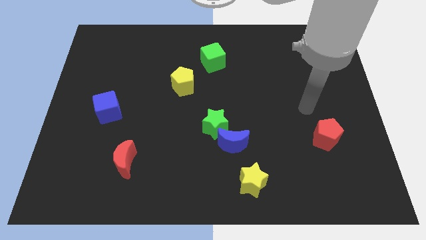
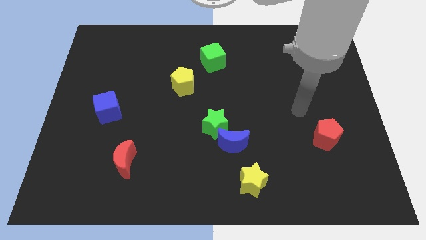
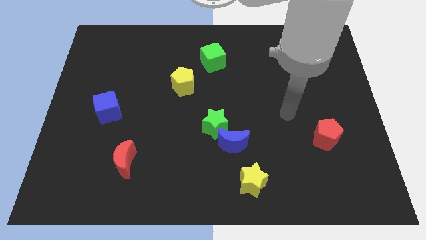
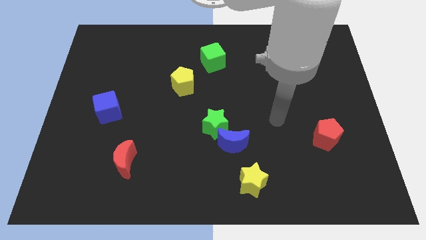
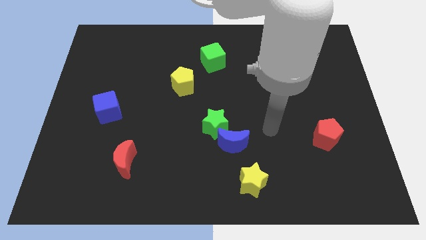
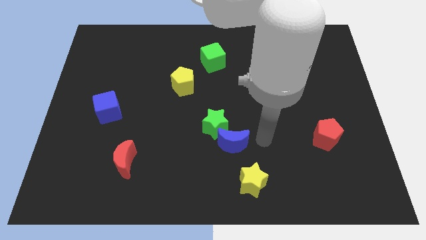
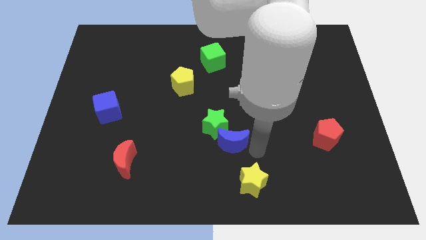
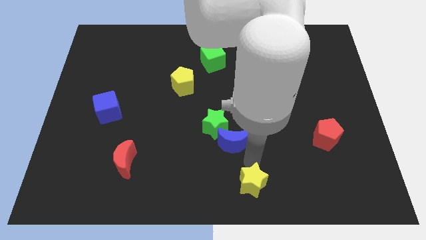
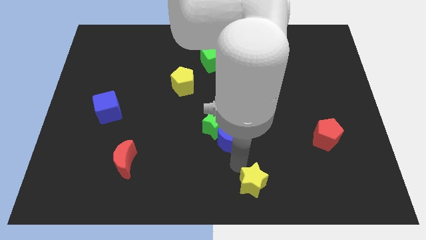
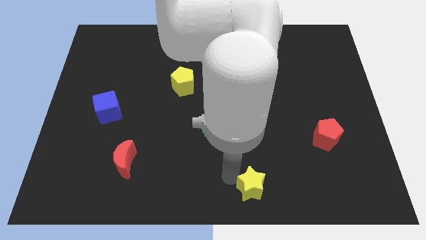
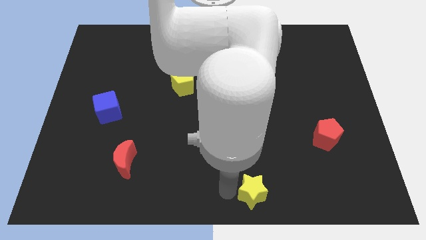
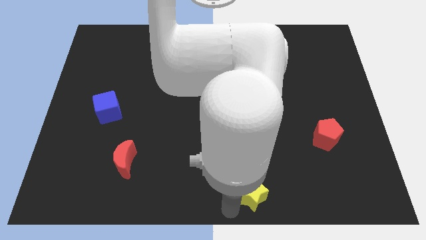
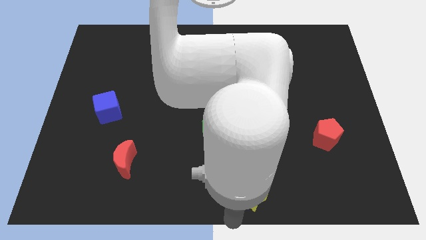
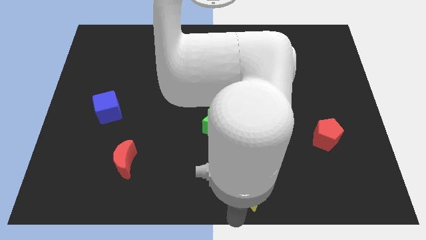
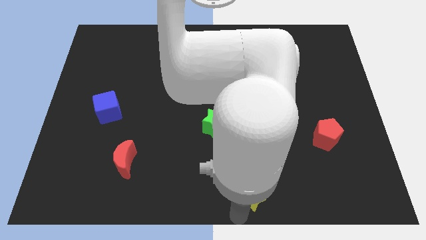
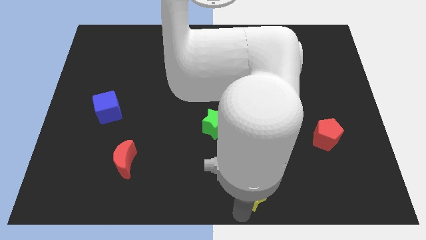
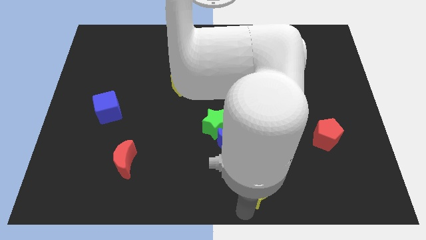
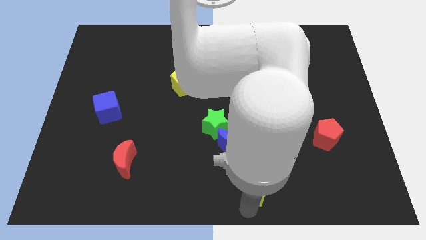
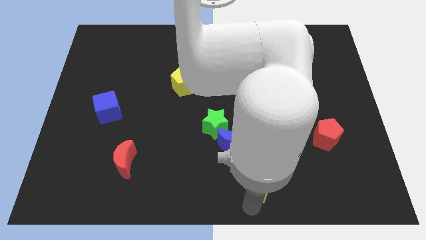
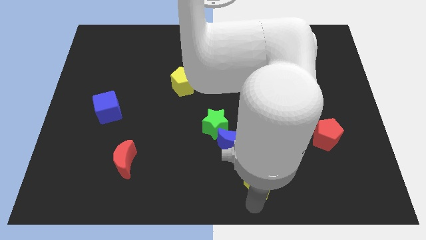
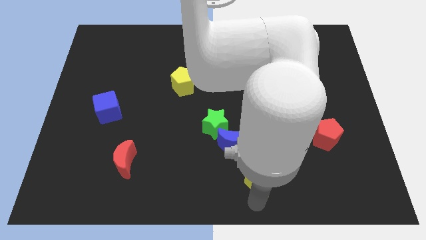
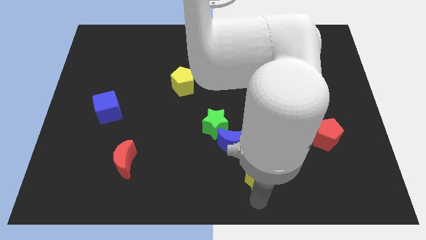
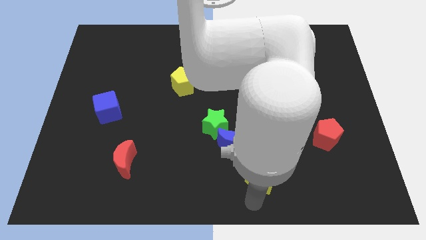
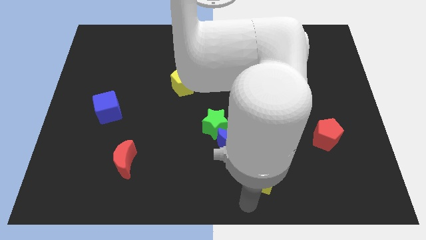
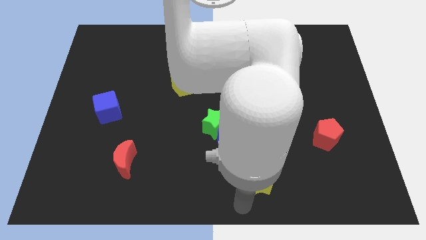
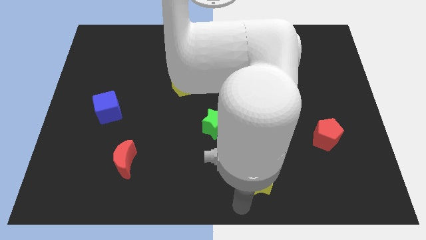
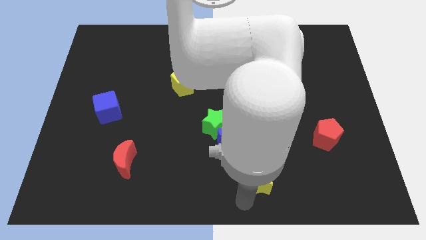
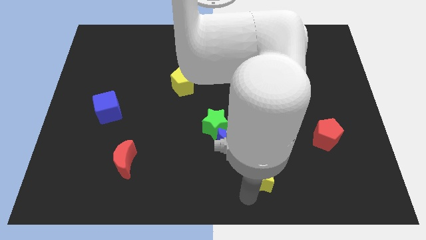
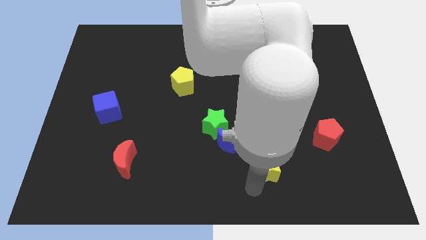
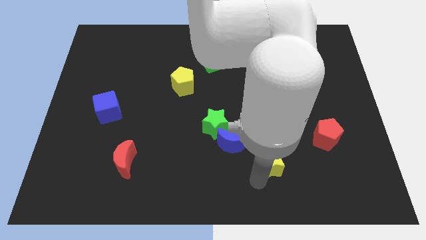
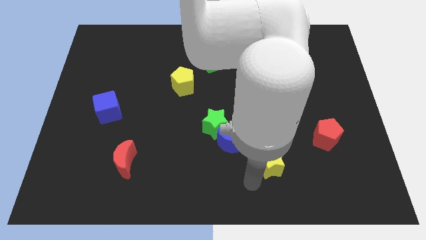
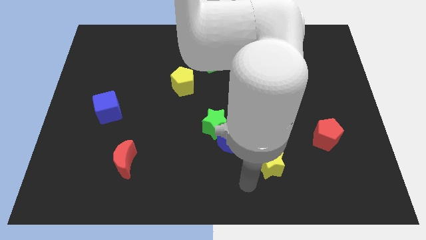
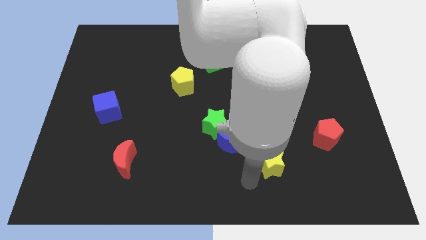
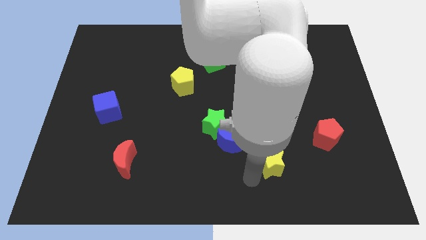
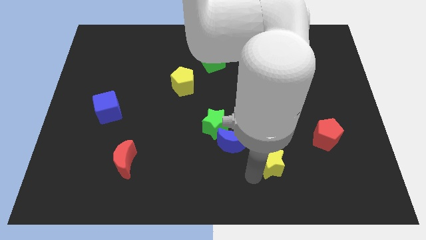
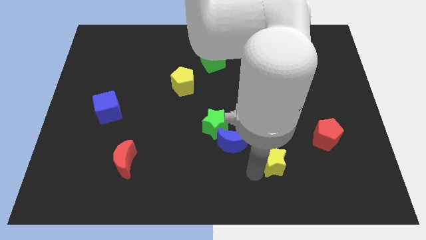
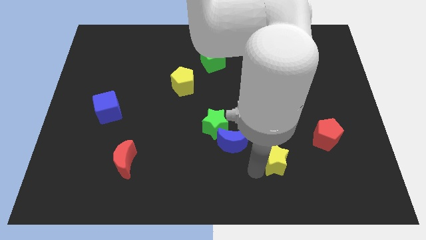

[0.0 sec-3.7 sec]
push the yellow star a bit upwards and to the right

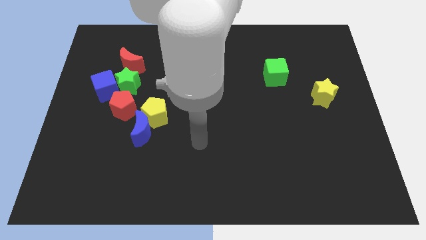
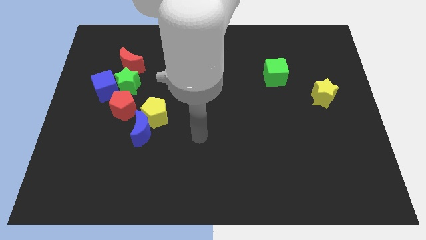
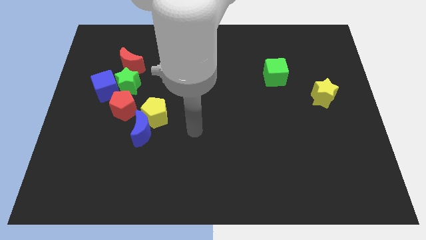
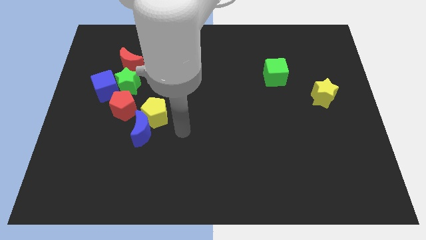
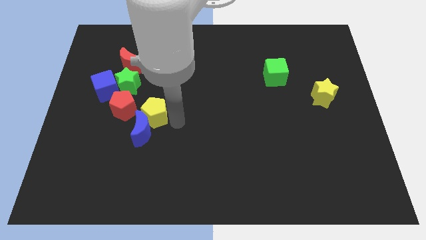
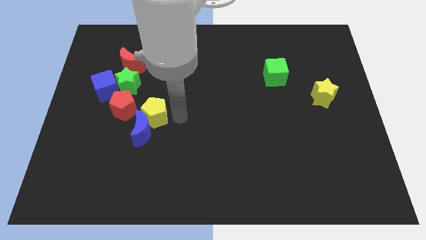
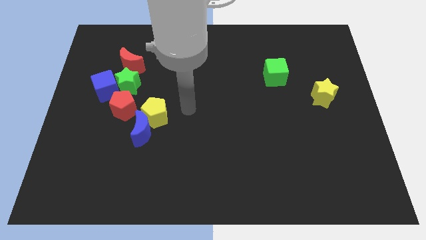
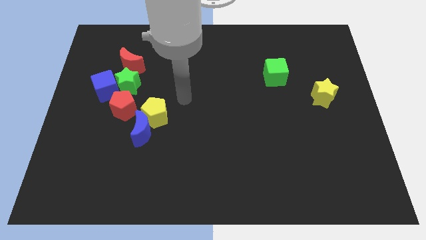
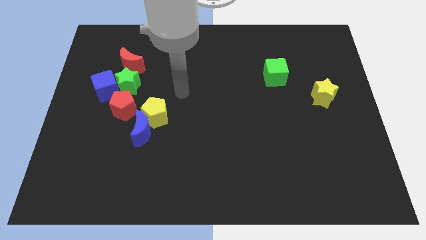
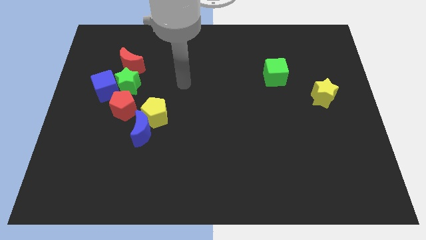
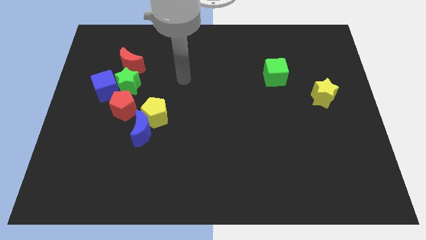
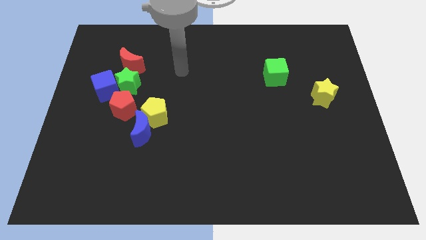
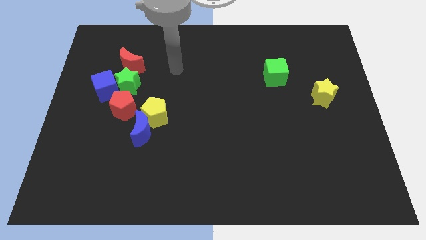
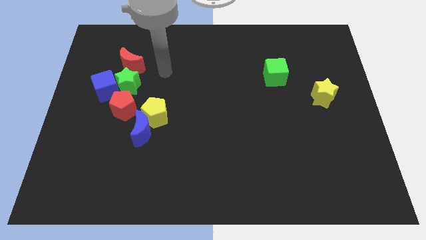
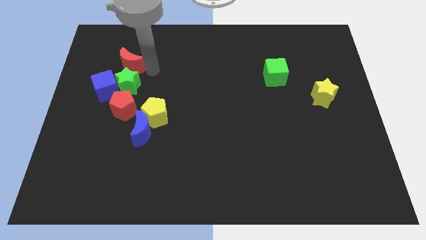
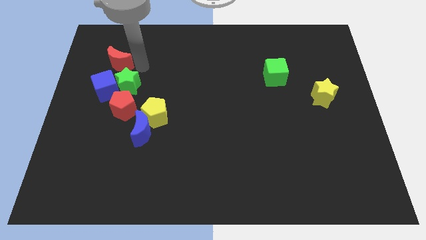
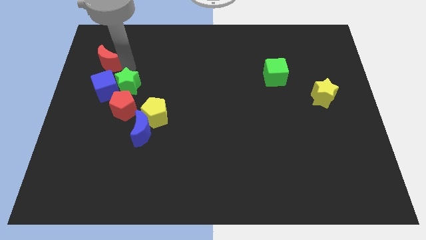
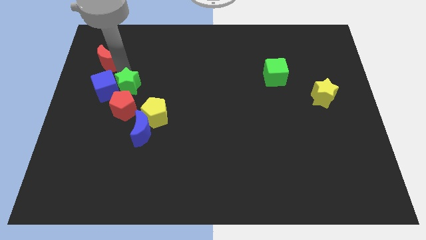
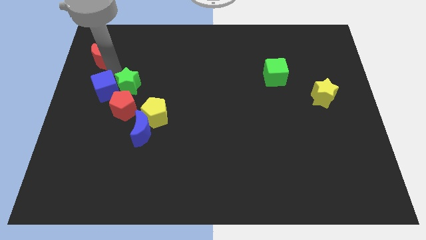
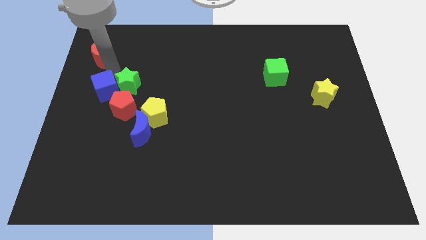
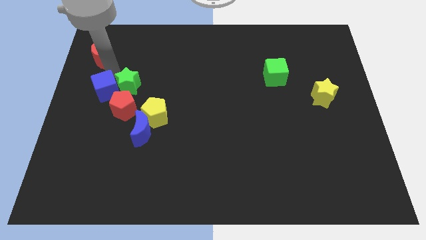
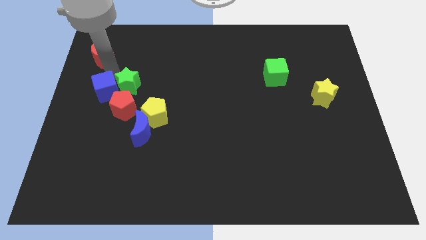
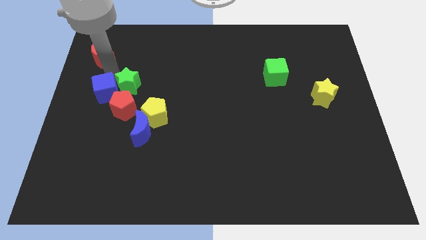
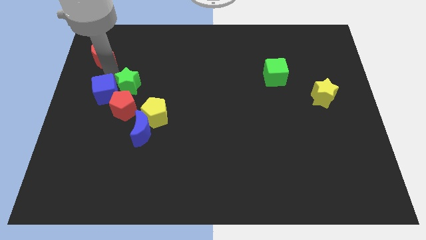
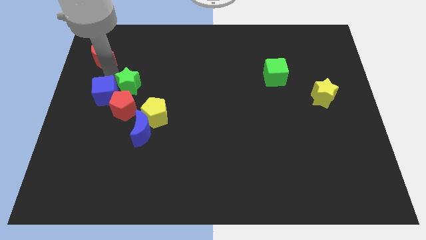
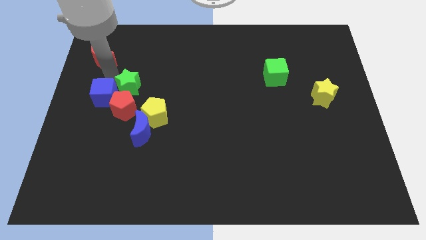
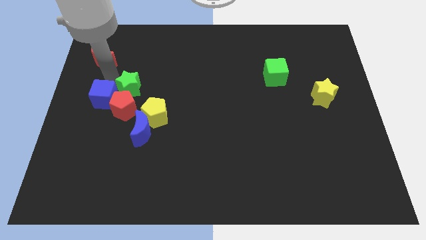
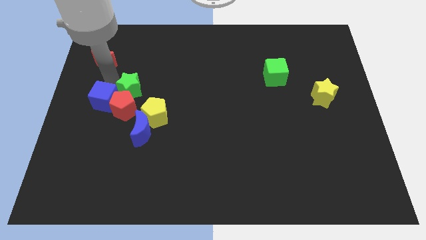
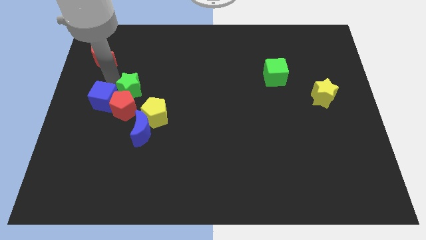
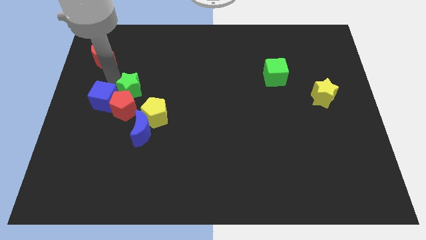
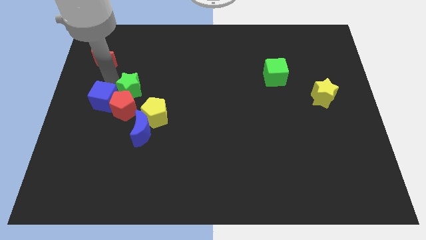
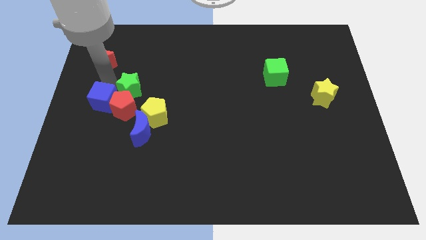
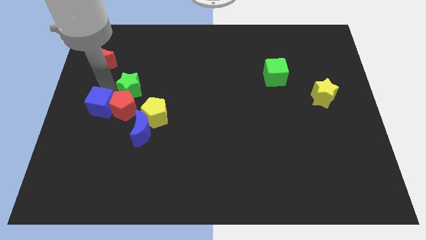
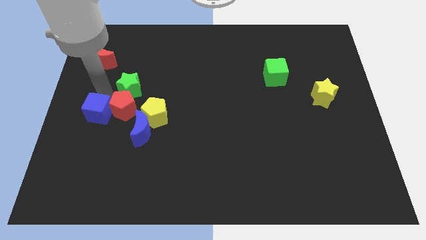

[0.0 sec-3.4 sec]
slightly push the blue cube downwards

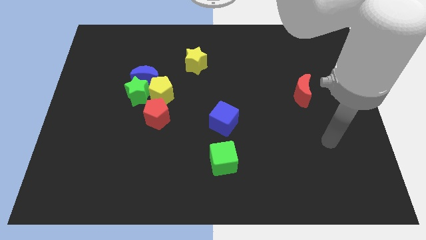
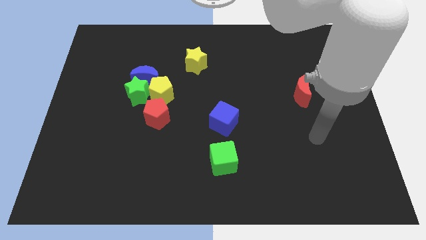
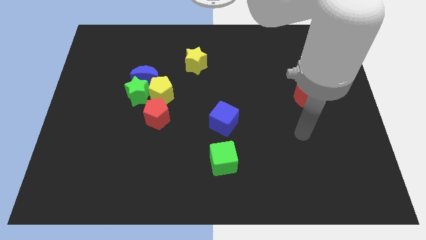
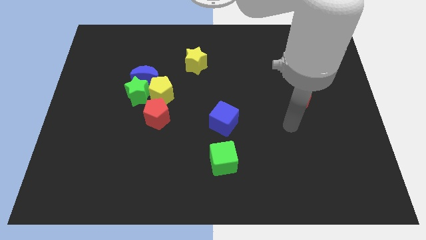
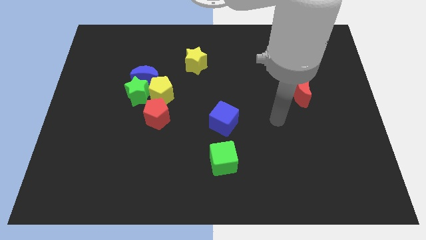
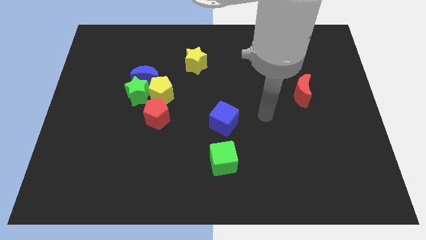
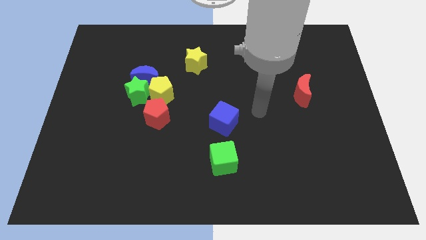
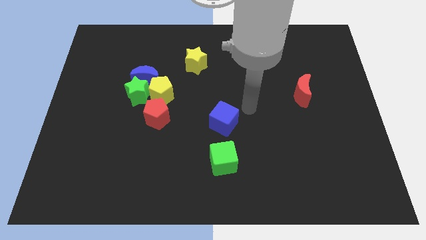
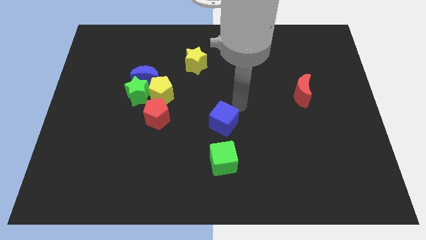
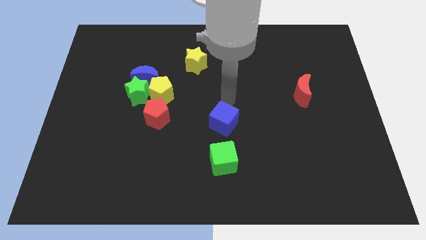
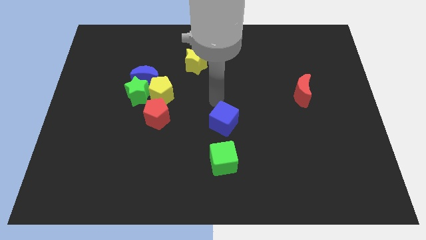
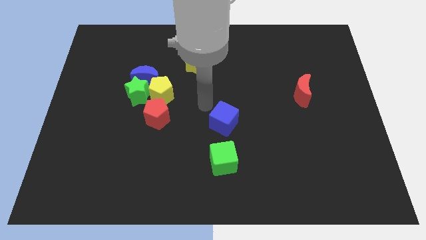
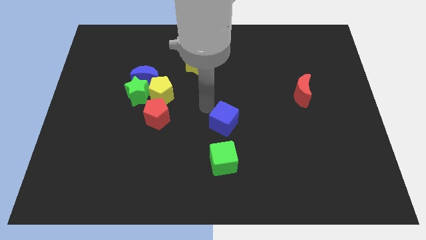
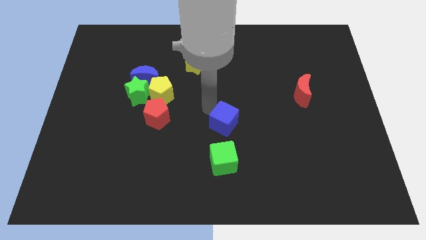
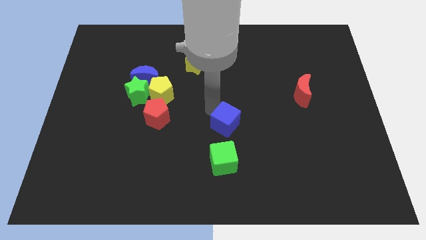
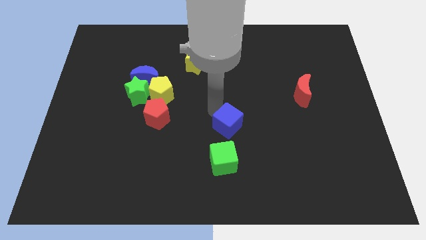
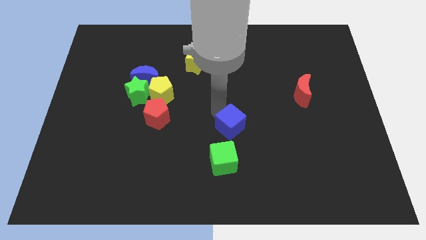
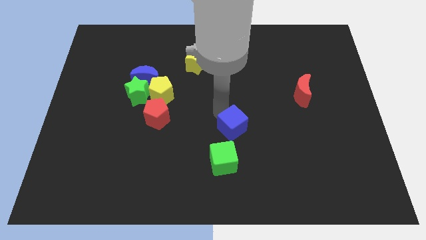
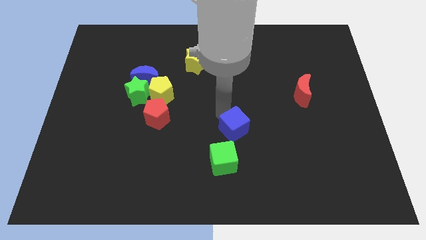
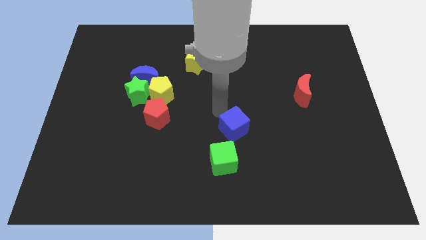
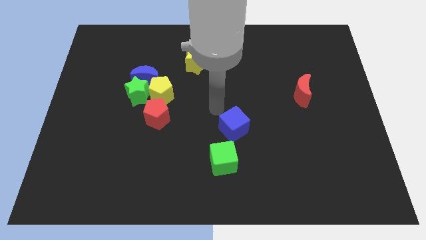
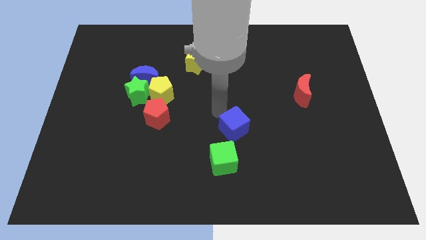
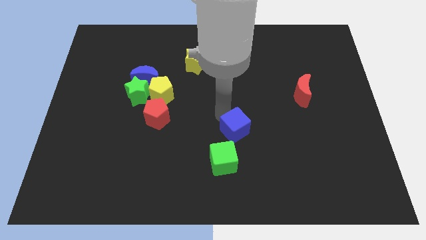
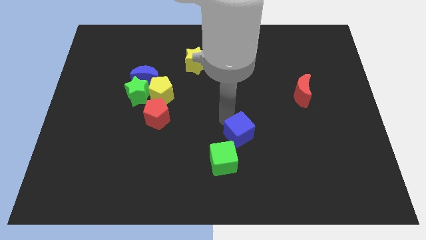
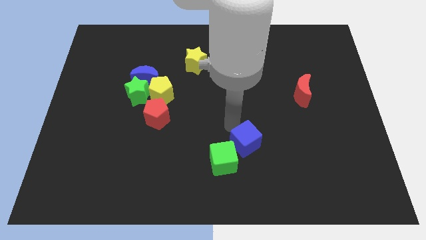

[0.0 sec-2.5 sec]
slide the blue cube a little bit diagonally downwards and to the right
